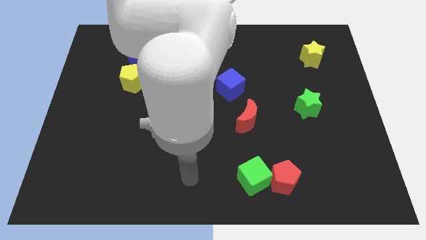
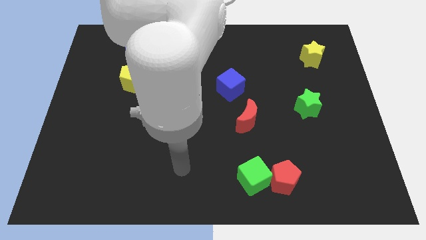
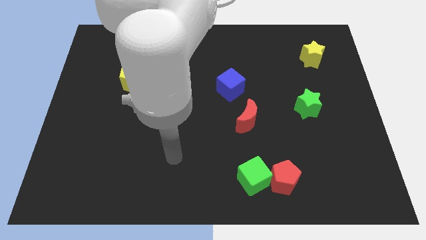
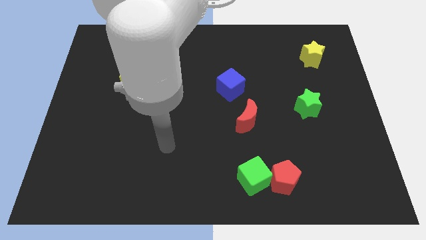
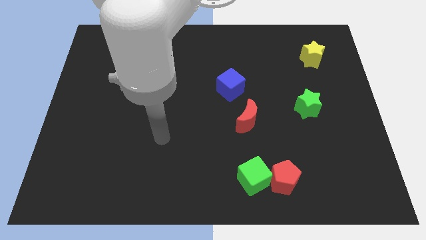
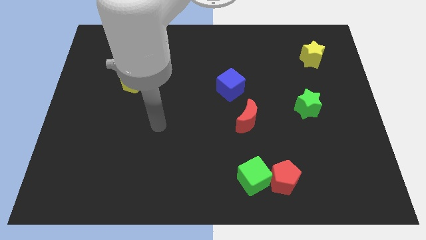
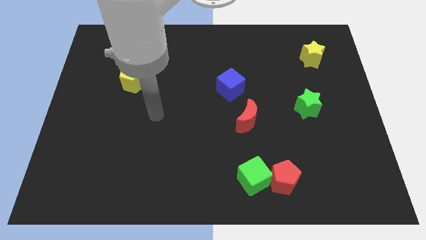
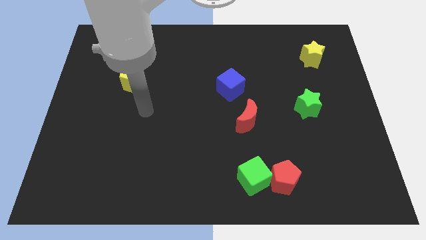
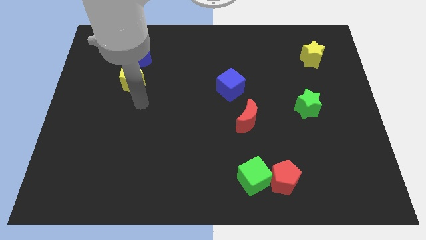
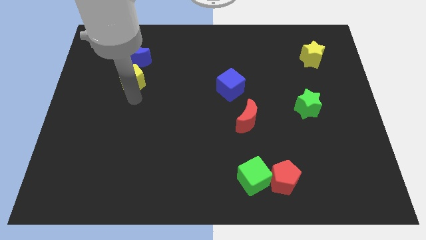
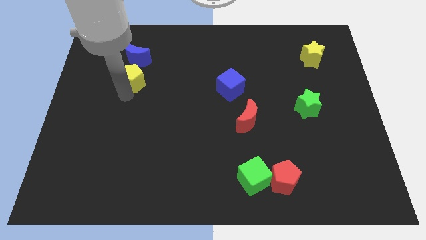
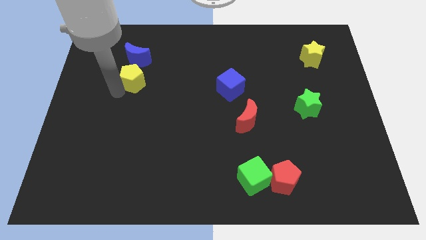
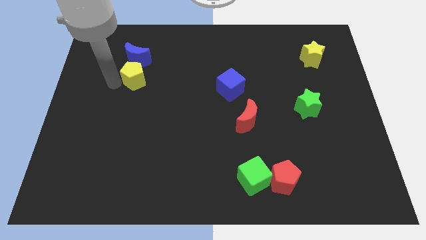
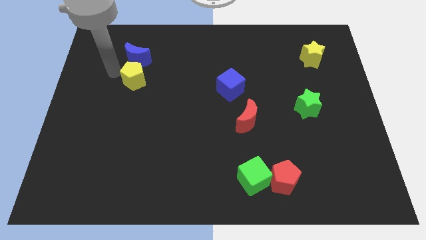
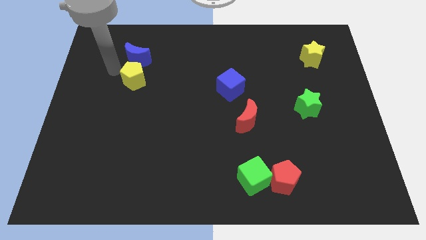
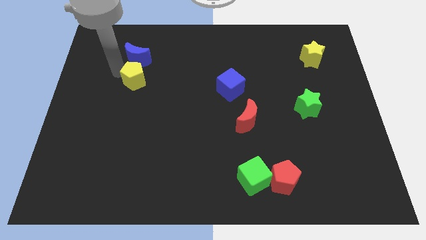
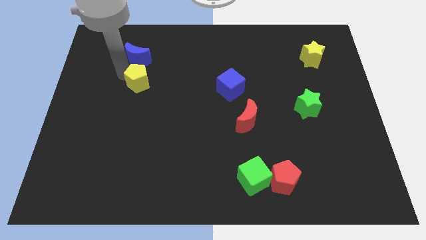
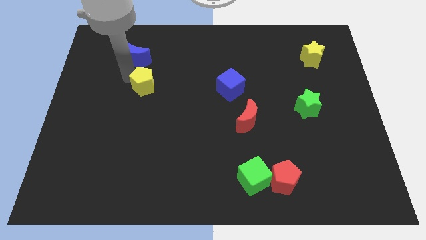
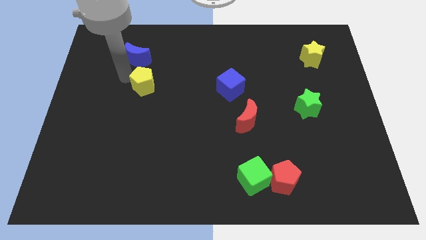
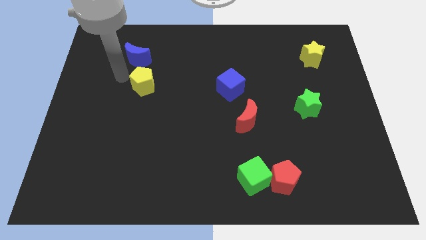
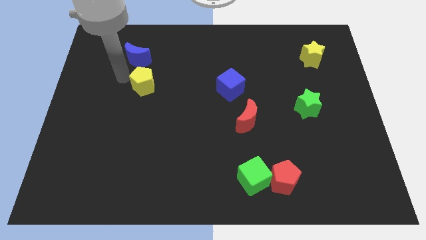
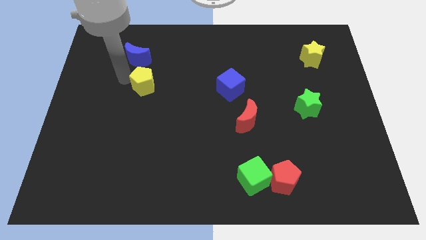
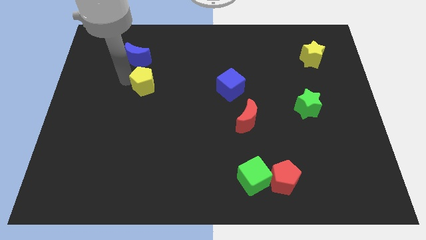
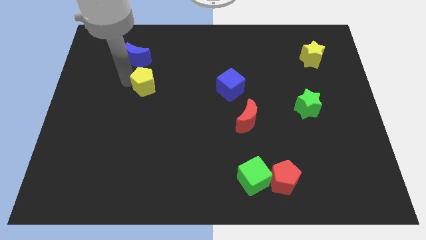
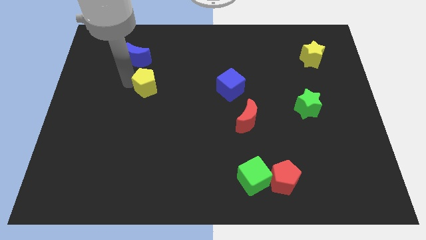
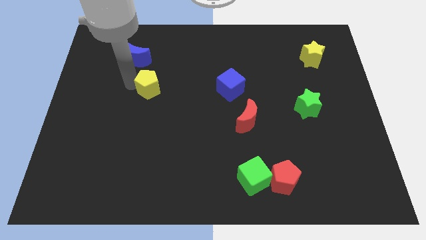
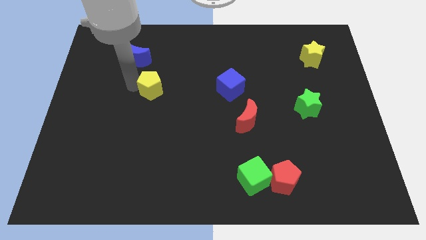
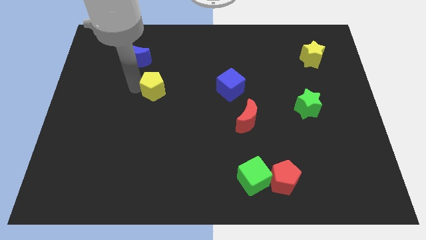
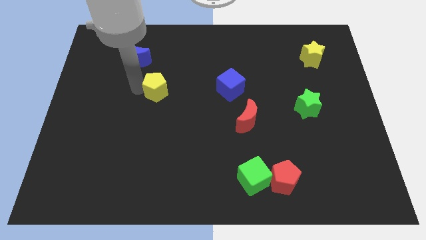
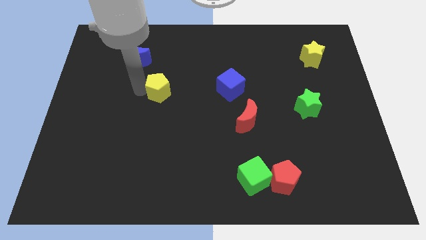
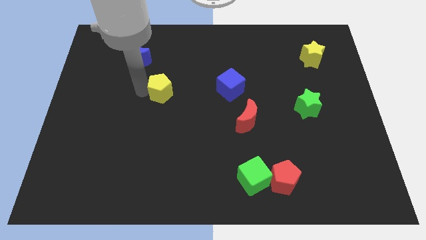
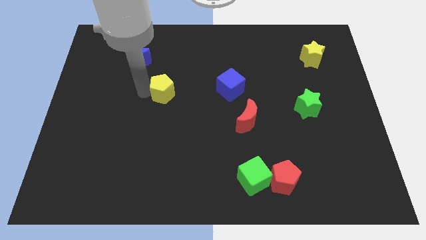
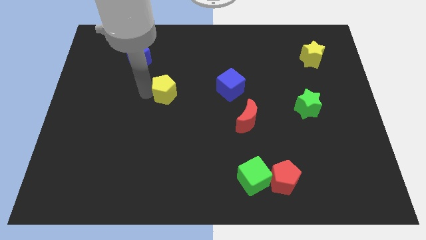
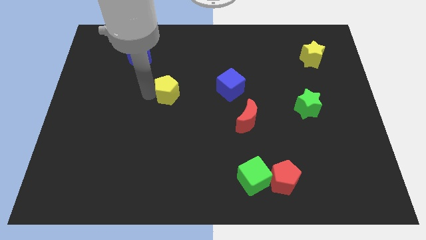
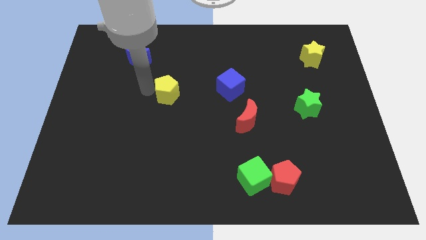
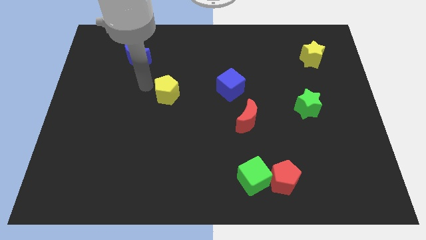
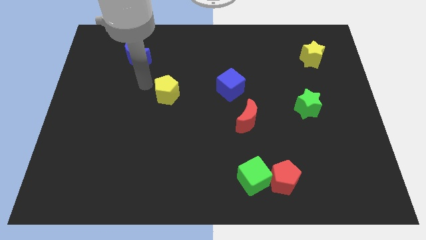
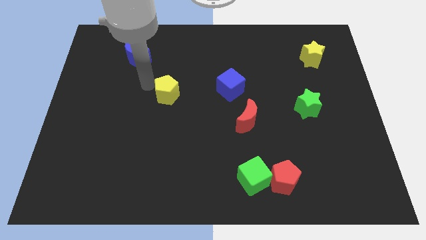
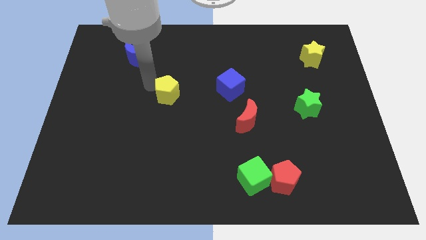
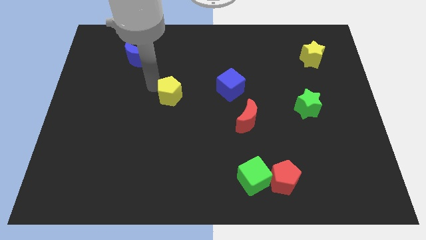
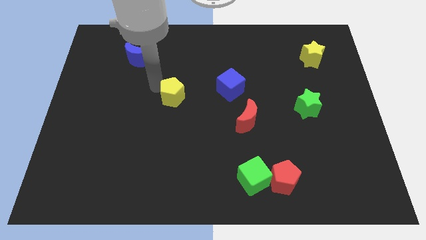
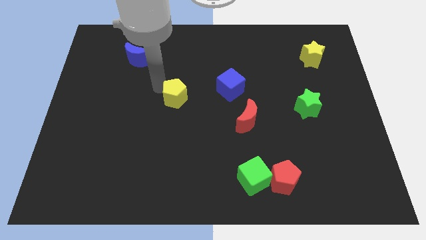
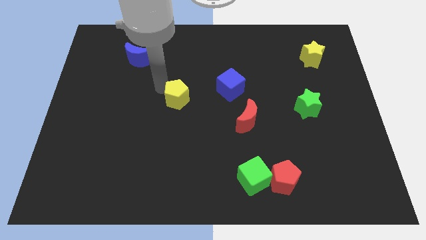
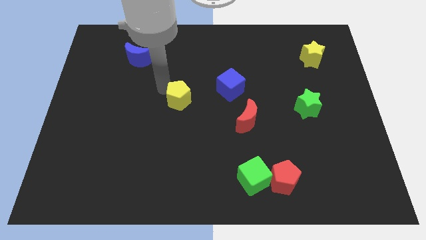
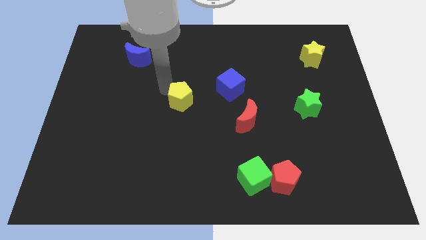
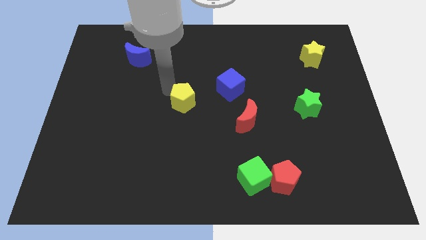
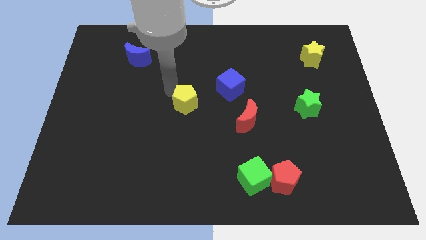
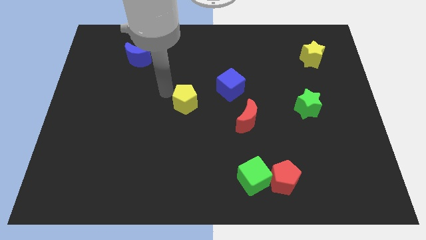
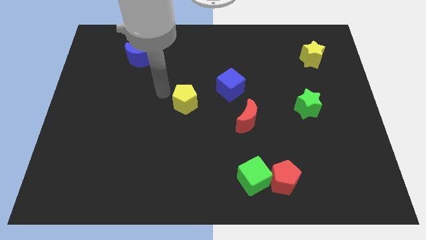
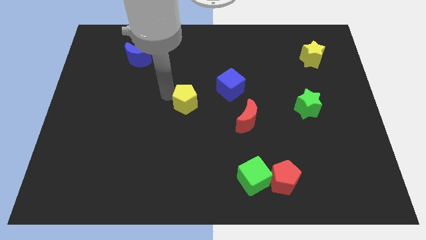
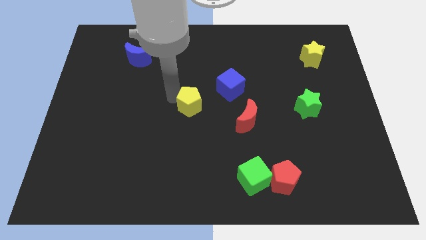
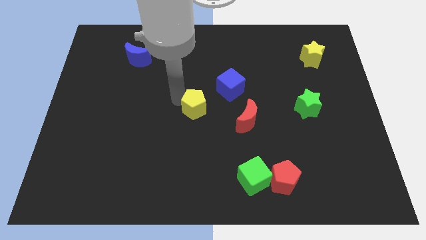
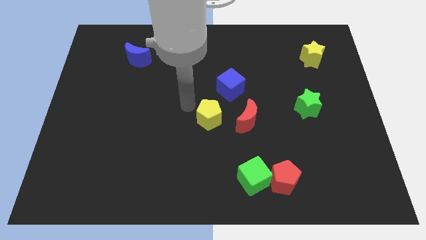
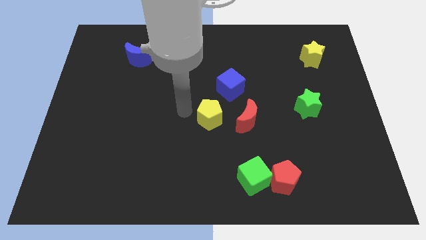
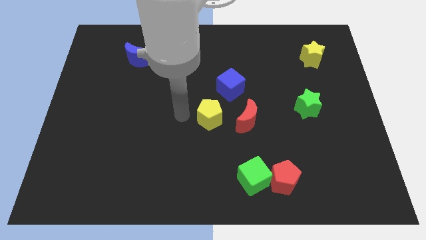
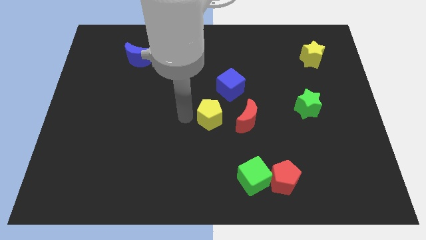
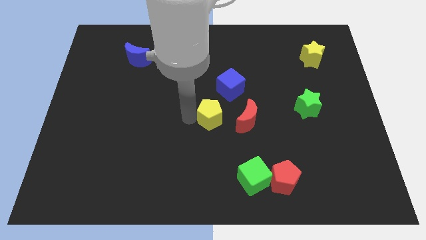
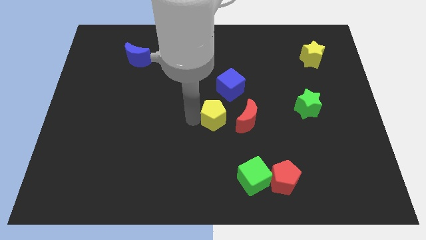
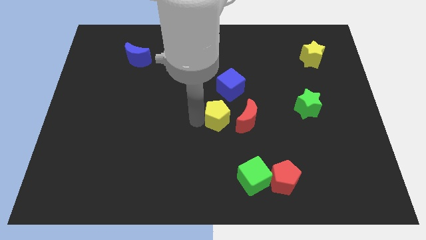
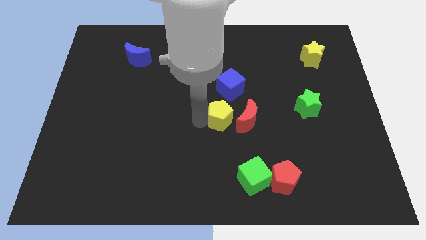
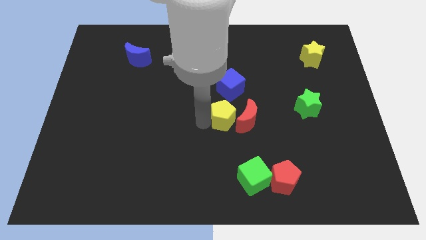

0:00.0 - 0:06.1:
push the yellow pentagon close to the red moon

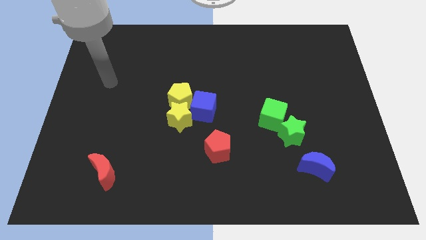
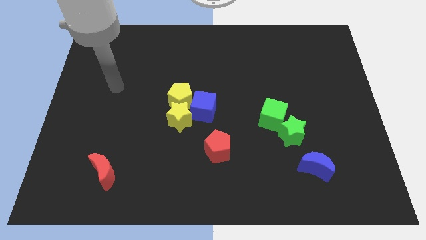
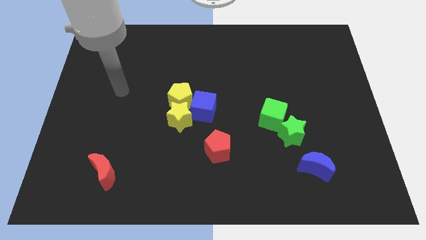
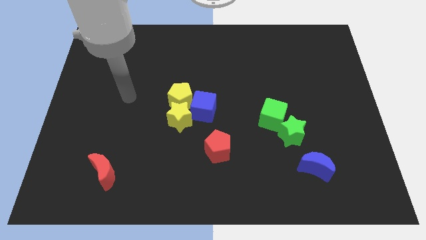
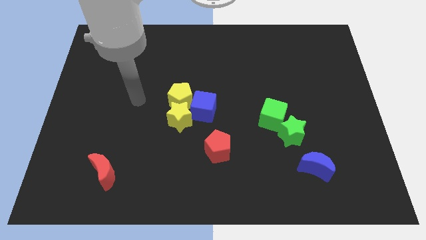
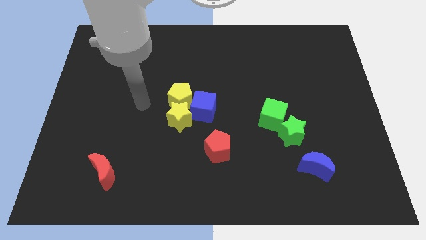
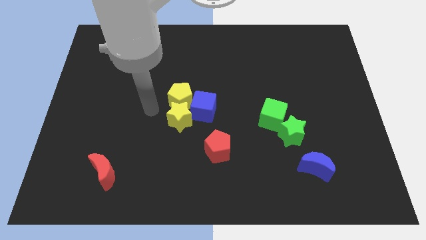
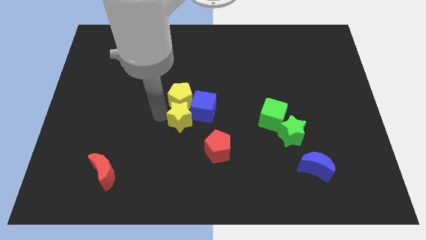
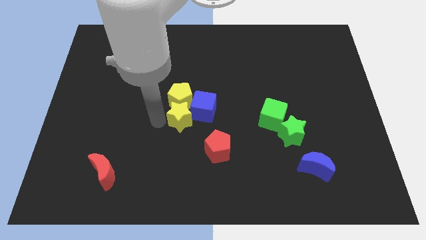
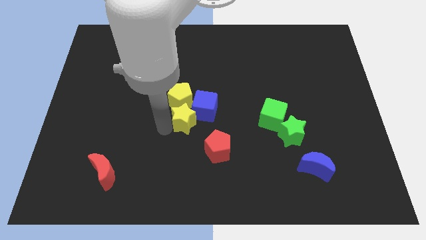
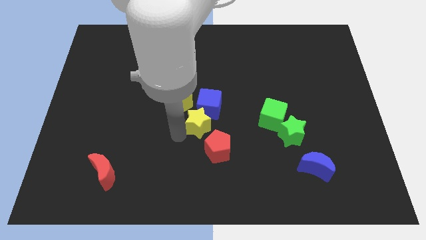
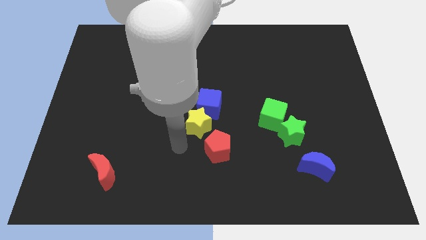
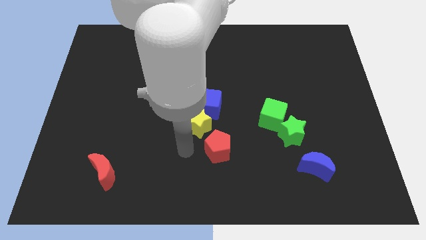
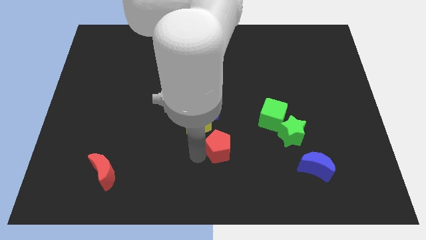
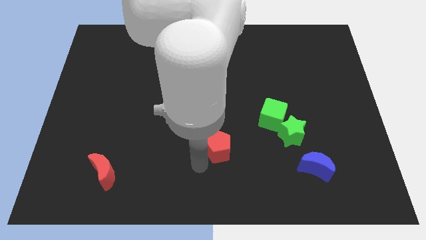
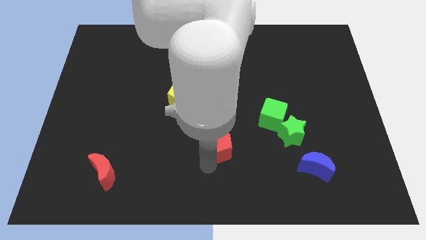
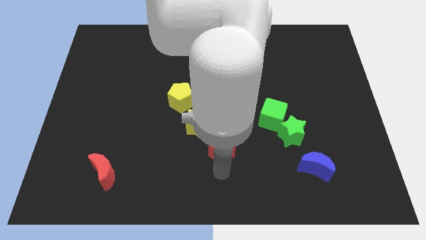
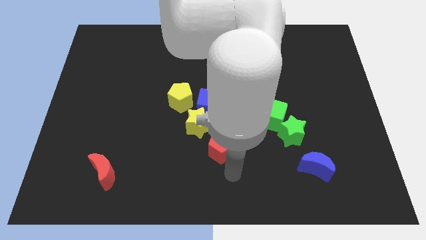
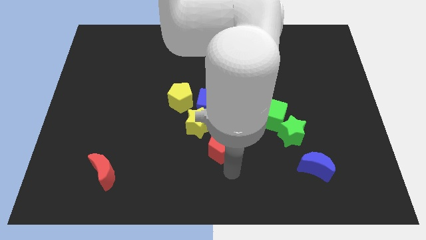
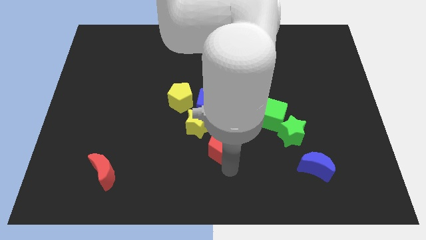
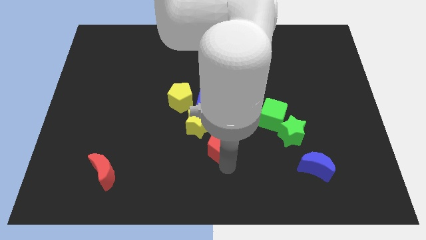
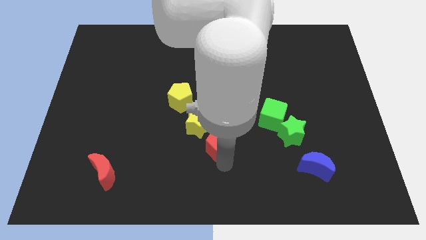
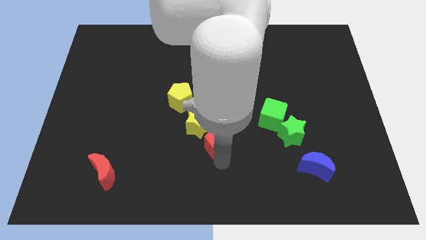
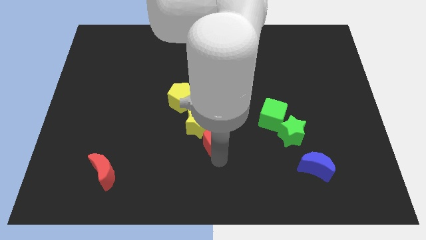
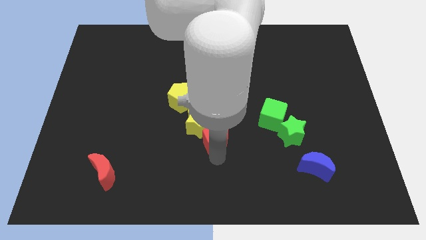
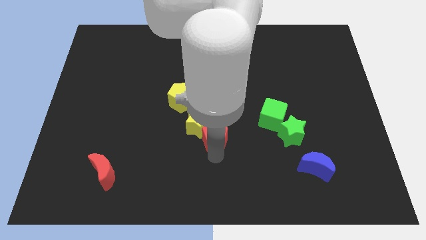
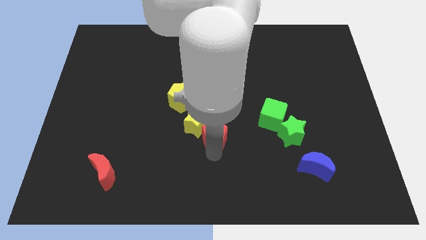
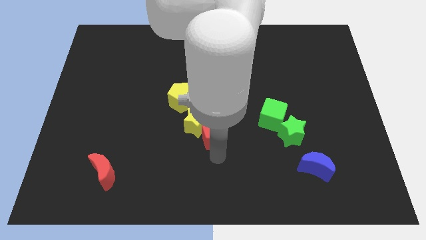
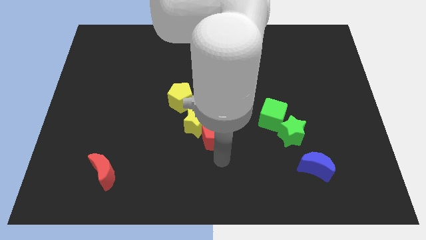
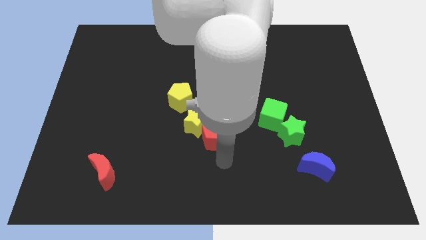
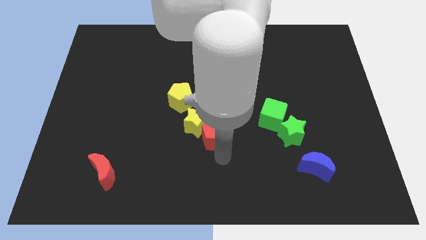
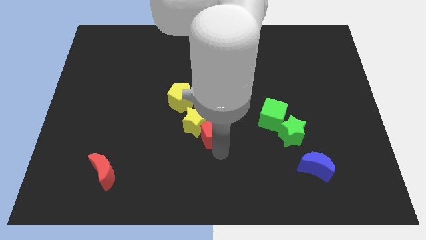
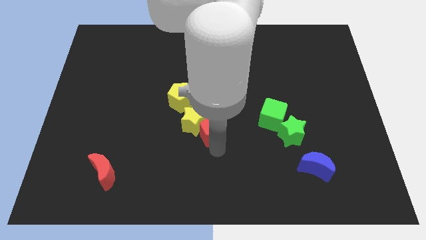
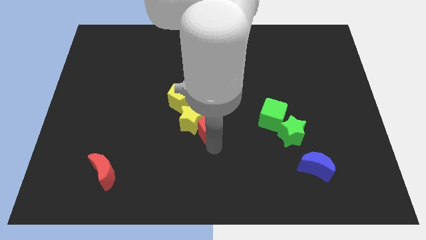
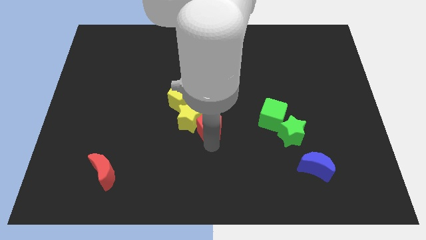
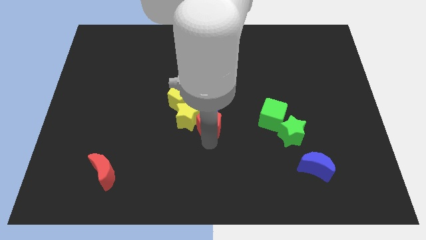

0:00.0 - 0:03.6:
put the red pentagon next to the blue cube
